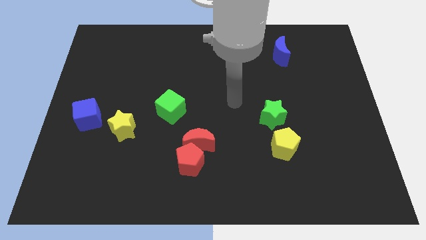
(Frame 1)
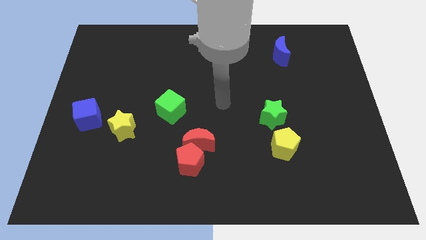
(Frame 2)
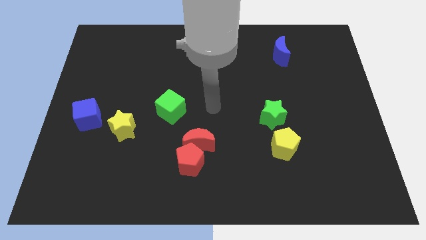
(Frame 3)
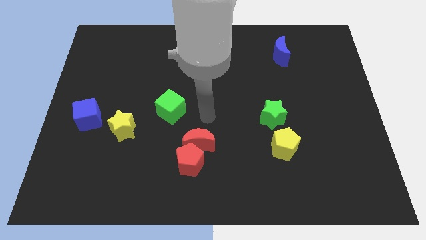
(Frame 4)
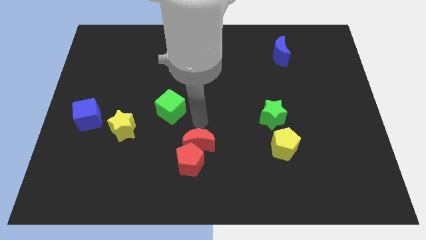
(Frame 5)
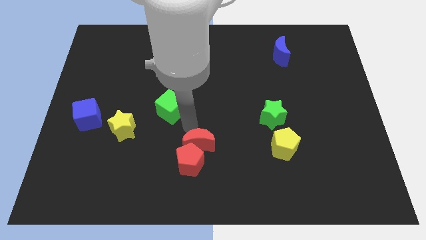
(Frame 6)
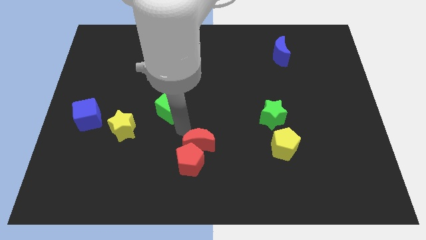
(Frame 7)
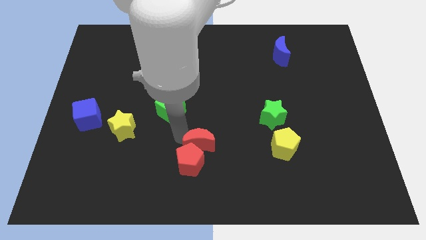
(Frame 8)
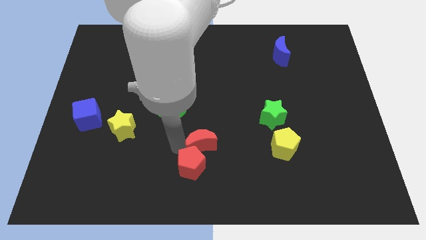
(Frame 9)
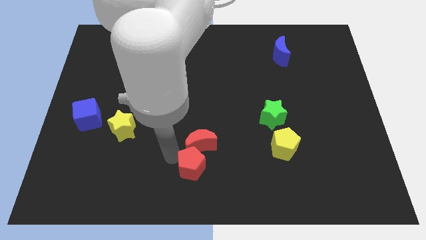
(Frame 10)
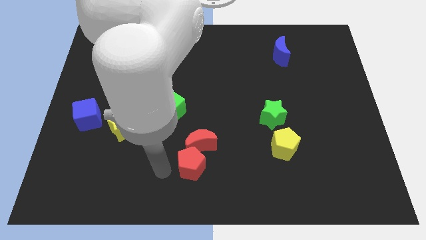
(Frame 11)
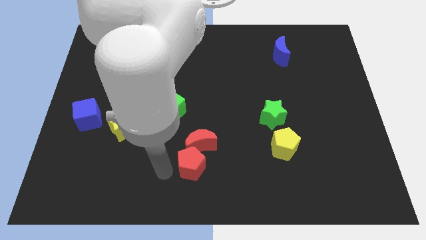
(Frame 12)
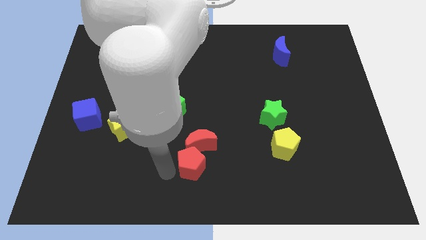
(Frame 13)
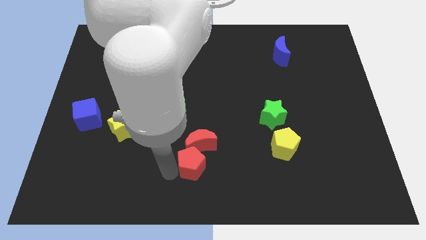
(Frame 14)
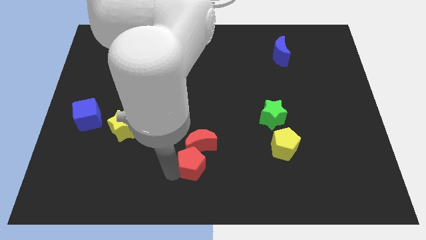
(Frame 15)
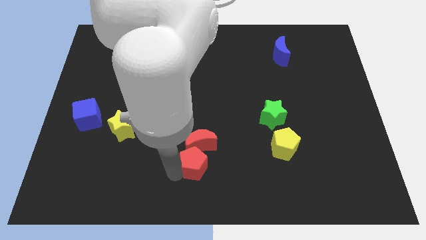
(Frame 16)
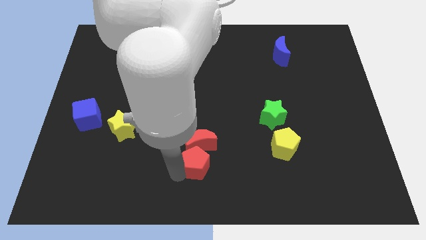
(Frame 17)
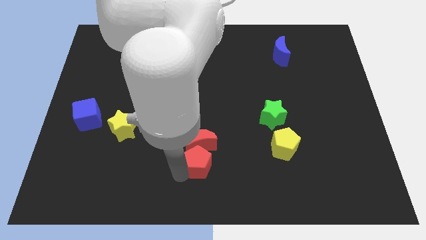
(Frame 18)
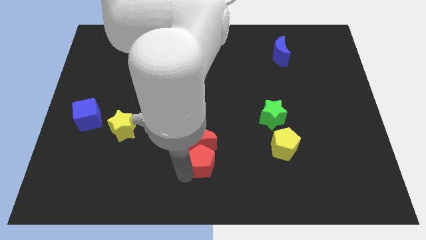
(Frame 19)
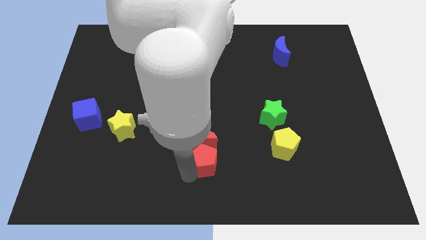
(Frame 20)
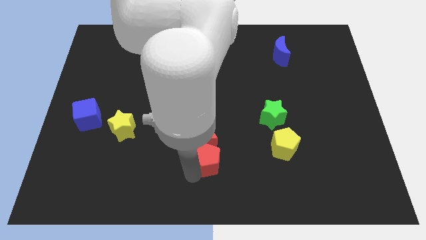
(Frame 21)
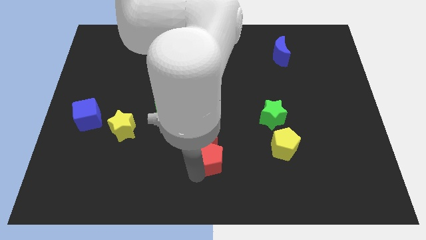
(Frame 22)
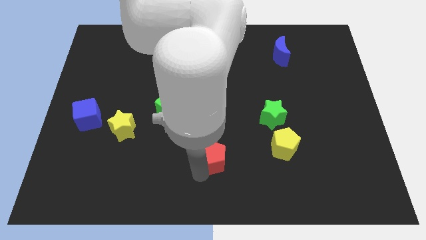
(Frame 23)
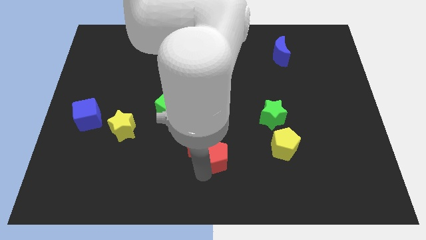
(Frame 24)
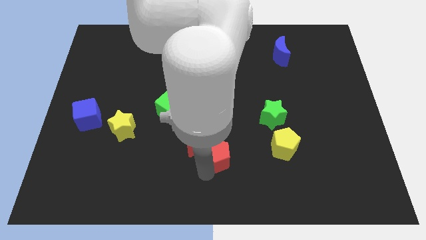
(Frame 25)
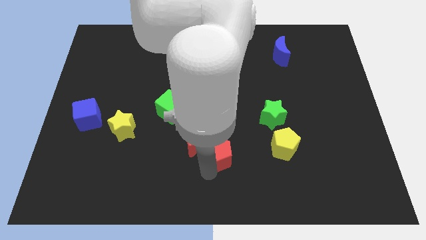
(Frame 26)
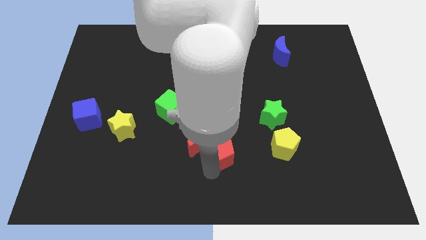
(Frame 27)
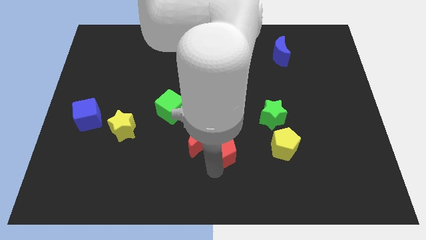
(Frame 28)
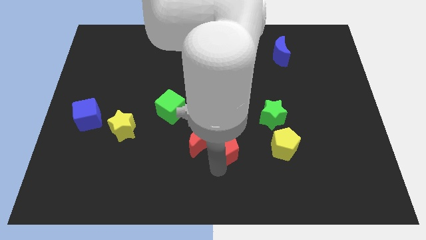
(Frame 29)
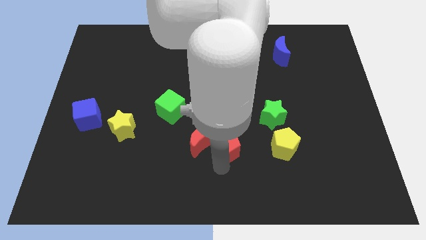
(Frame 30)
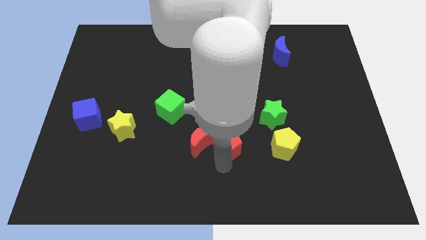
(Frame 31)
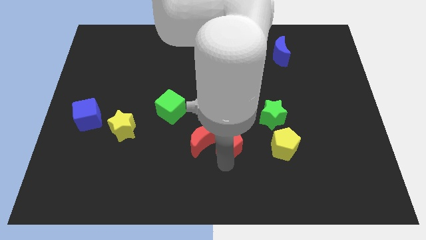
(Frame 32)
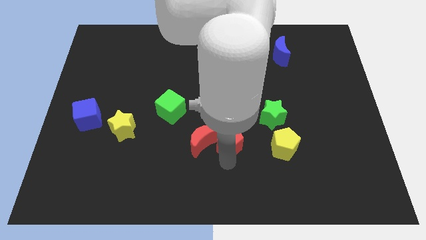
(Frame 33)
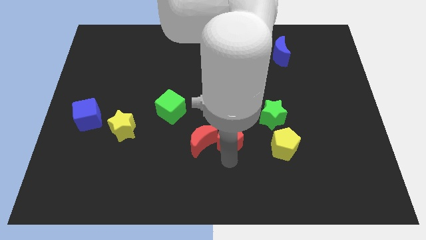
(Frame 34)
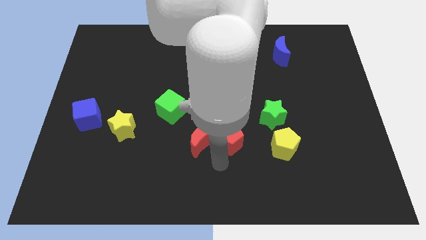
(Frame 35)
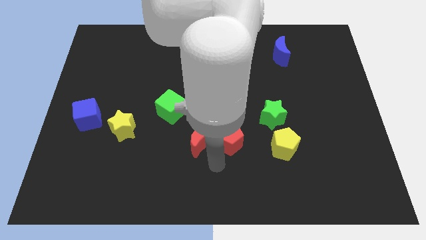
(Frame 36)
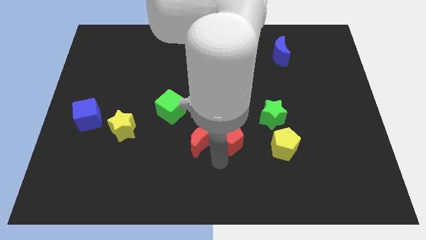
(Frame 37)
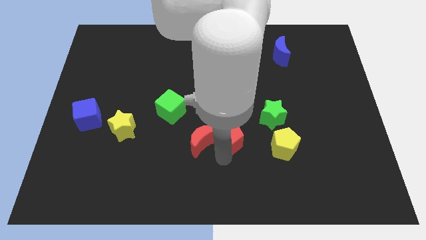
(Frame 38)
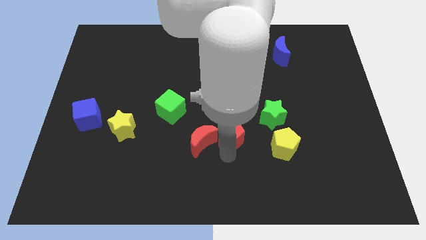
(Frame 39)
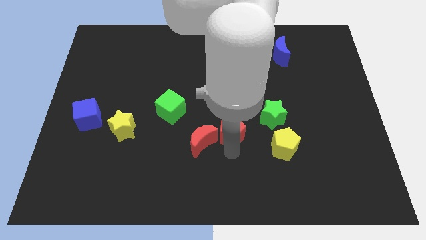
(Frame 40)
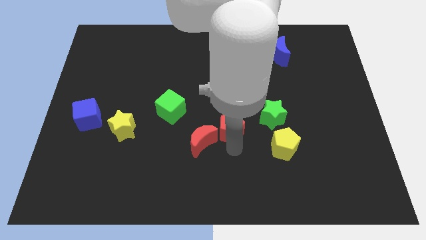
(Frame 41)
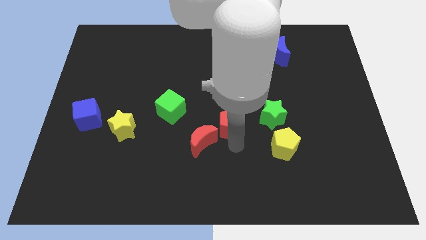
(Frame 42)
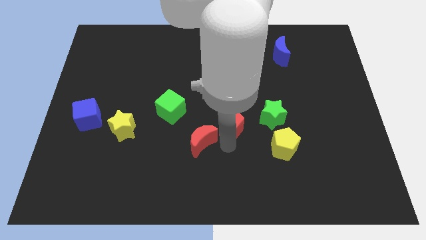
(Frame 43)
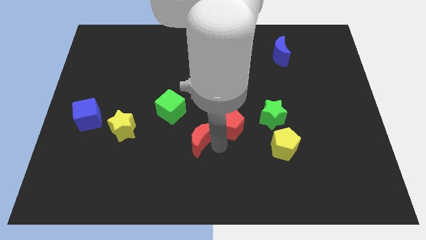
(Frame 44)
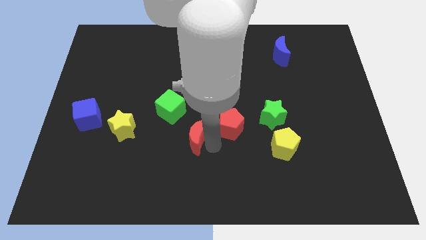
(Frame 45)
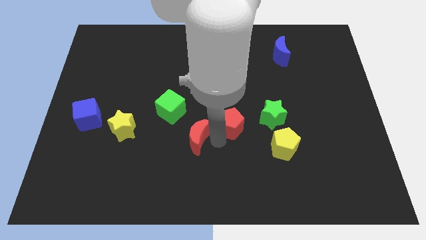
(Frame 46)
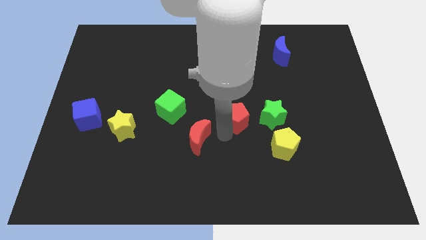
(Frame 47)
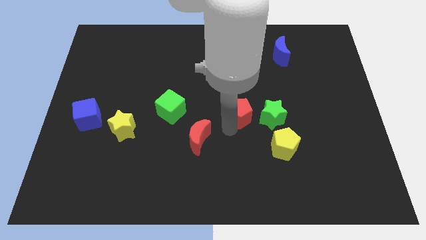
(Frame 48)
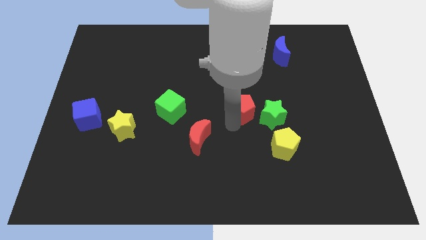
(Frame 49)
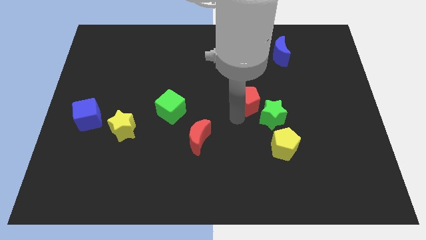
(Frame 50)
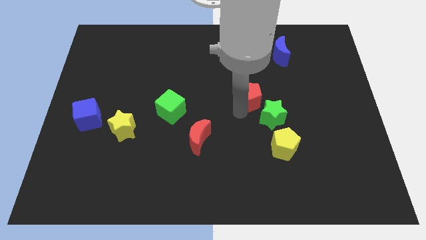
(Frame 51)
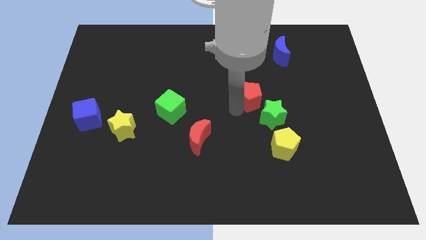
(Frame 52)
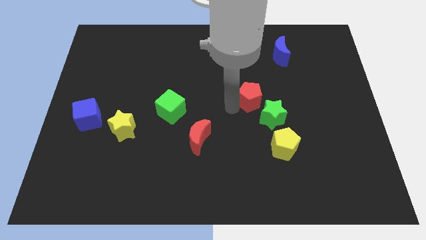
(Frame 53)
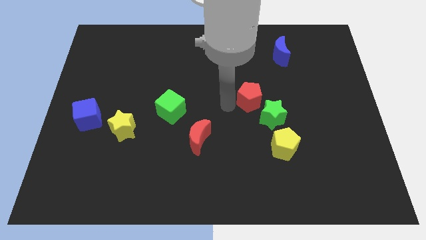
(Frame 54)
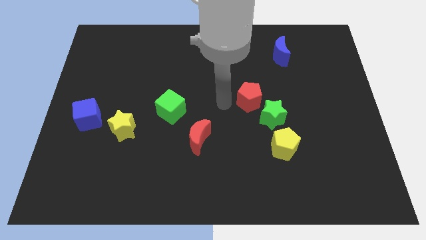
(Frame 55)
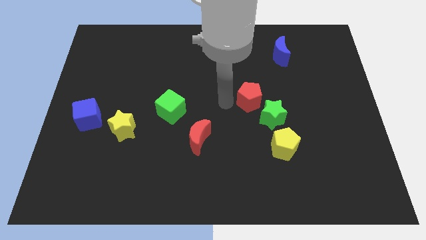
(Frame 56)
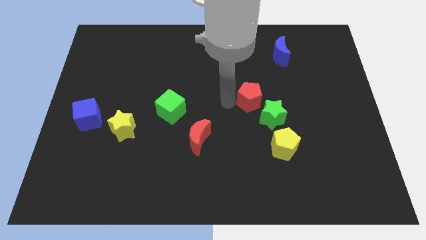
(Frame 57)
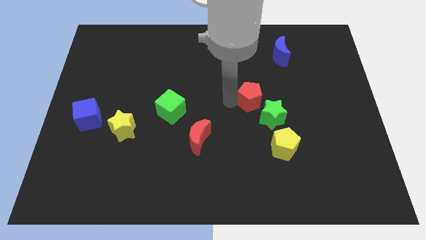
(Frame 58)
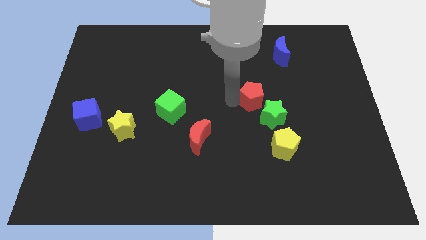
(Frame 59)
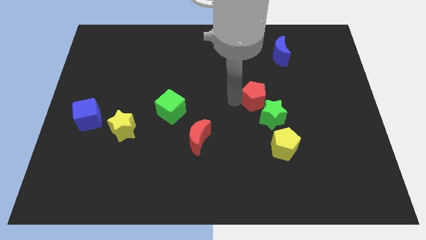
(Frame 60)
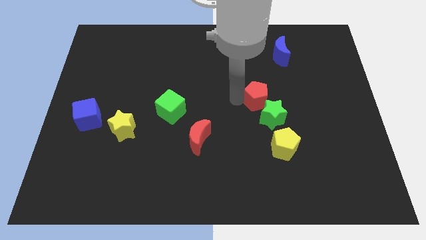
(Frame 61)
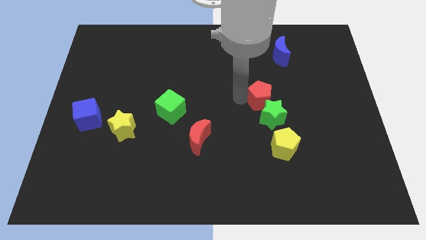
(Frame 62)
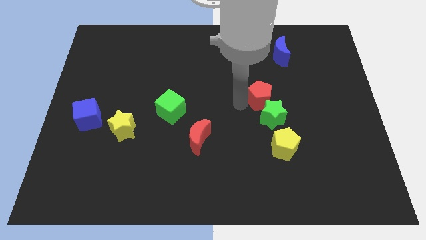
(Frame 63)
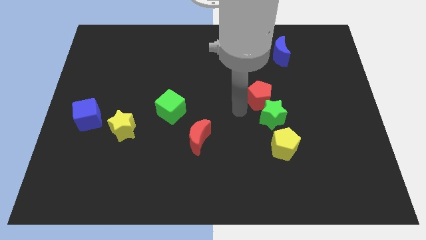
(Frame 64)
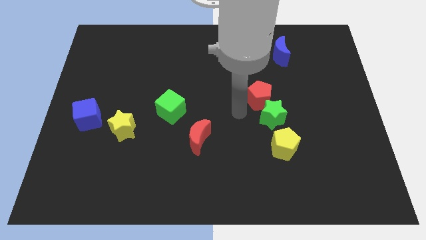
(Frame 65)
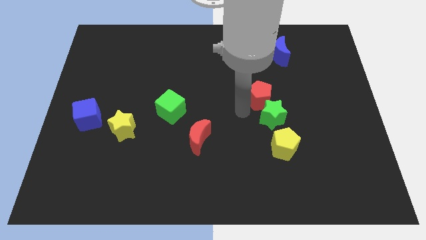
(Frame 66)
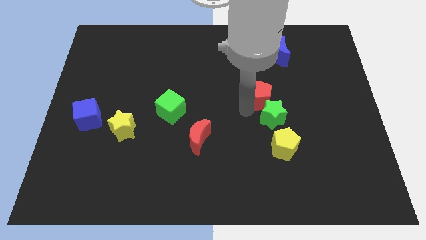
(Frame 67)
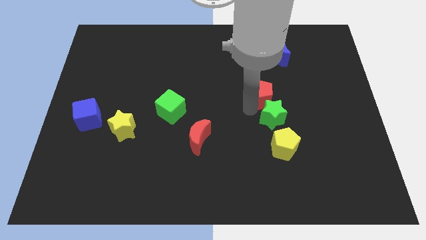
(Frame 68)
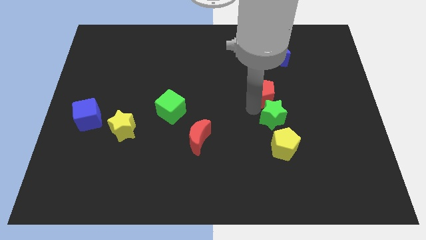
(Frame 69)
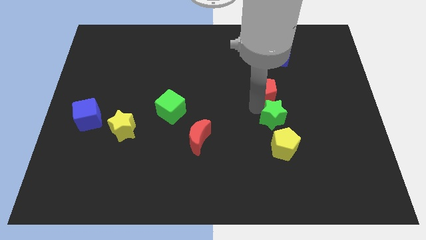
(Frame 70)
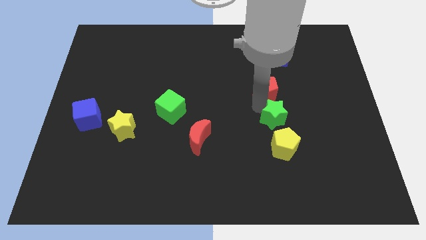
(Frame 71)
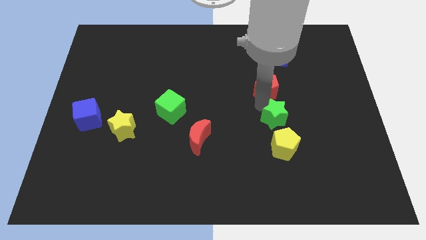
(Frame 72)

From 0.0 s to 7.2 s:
push the red pentagon to the bottom side of the blue moon
